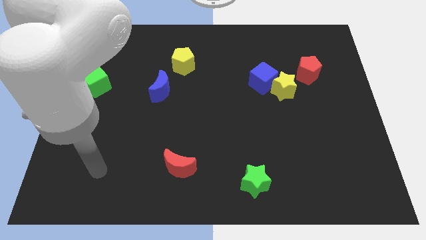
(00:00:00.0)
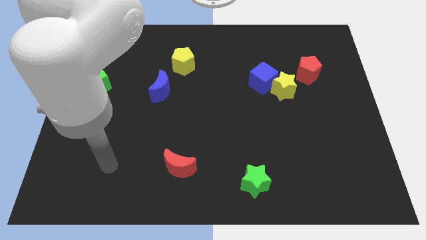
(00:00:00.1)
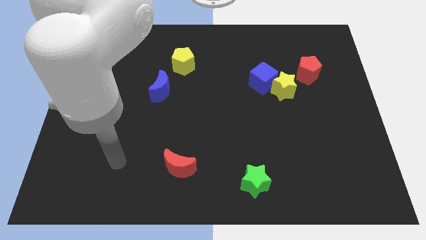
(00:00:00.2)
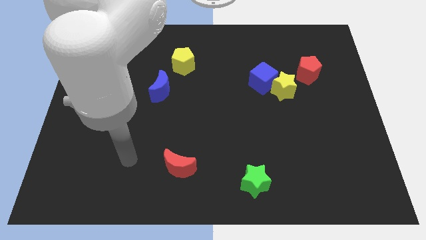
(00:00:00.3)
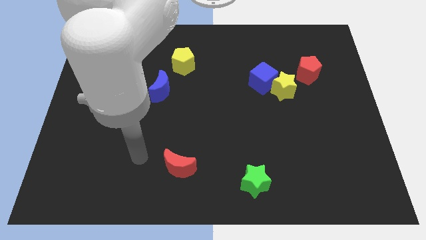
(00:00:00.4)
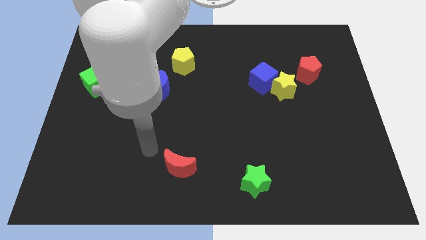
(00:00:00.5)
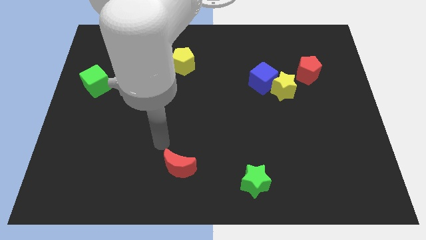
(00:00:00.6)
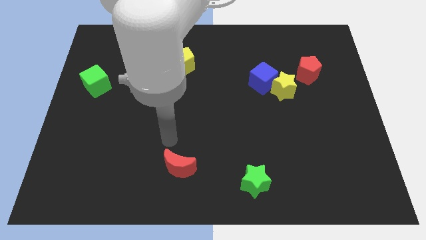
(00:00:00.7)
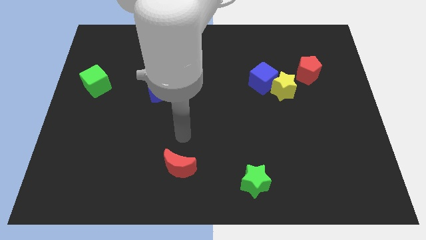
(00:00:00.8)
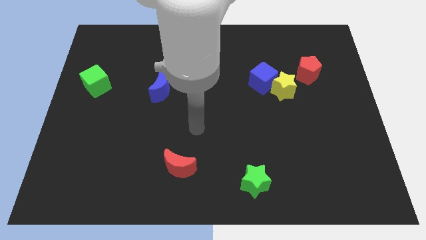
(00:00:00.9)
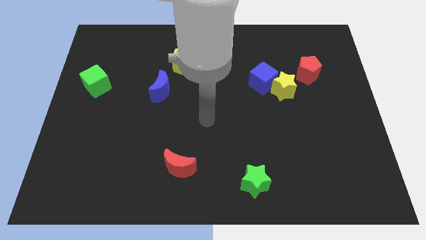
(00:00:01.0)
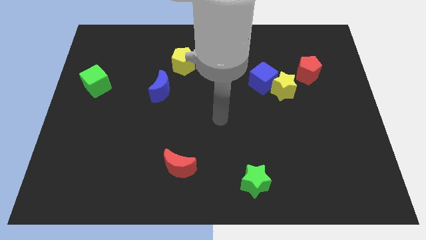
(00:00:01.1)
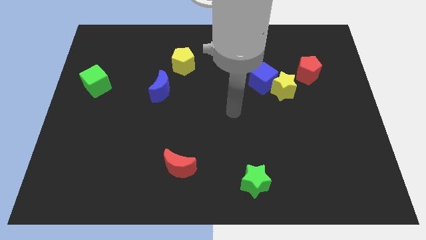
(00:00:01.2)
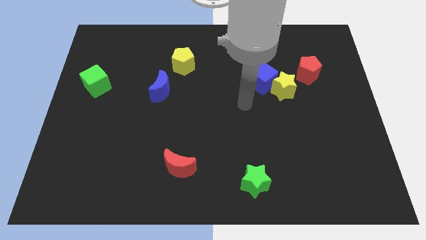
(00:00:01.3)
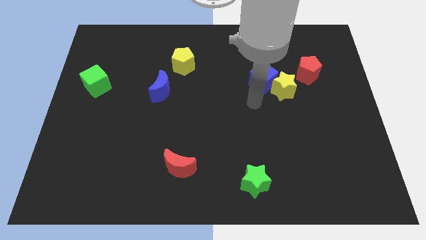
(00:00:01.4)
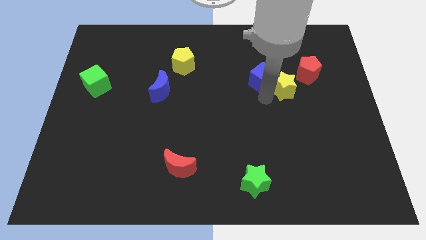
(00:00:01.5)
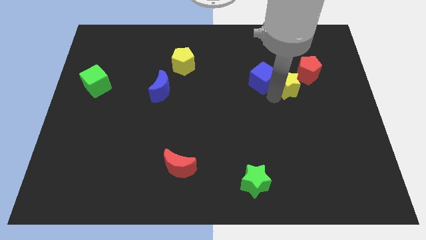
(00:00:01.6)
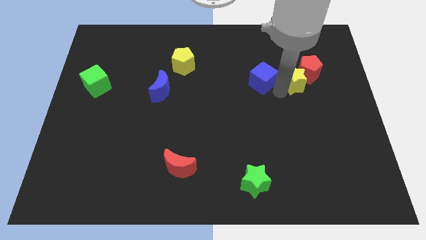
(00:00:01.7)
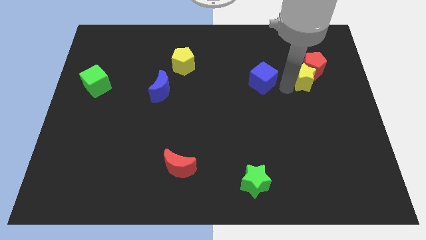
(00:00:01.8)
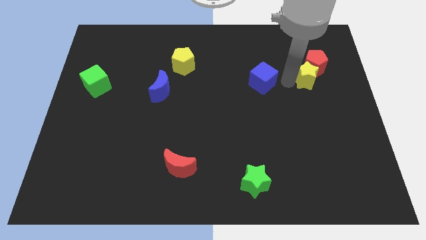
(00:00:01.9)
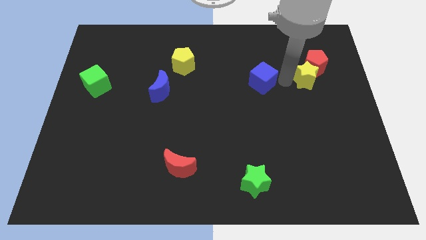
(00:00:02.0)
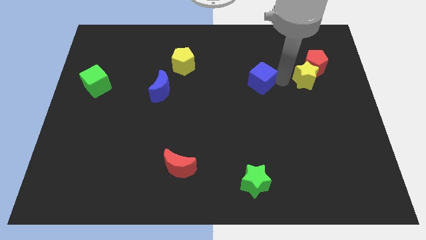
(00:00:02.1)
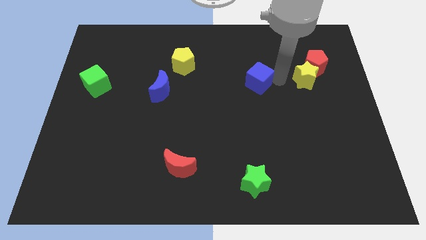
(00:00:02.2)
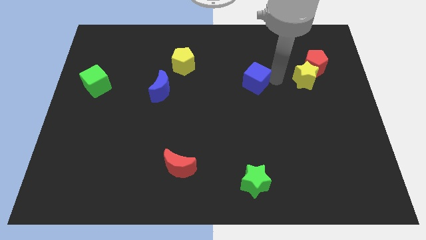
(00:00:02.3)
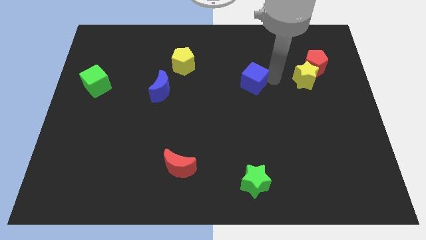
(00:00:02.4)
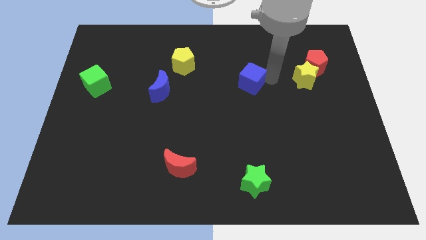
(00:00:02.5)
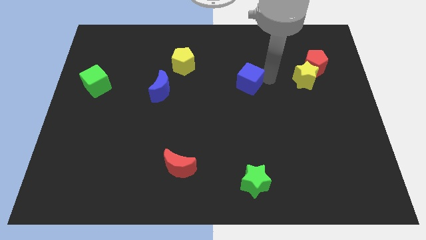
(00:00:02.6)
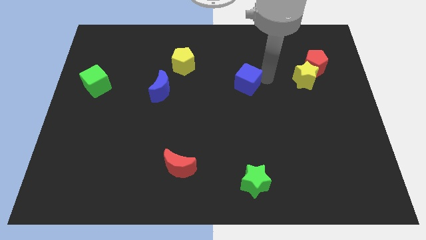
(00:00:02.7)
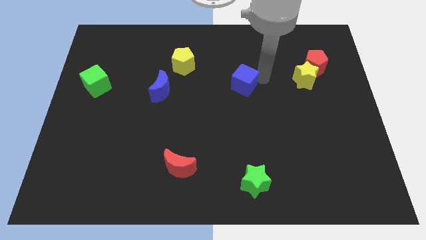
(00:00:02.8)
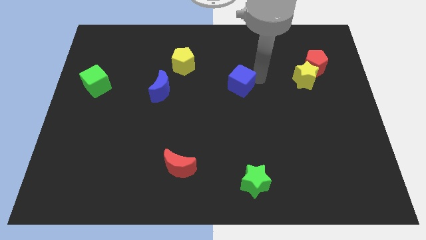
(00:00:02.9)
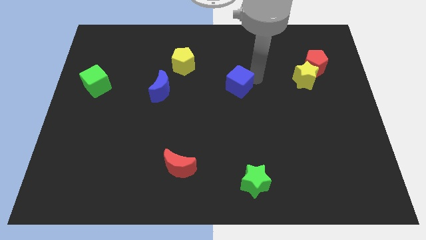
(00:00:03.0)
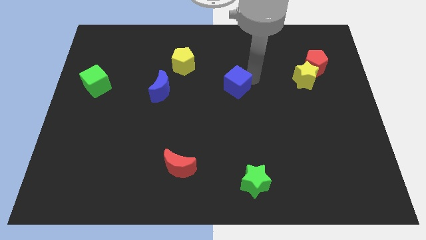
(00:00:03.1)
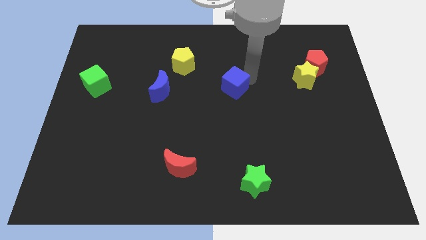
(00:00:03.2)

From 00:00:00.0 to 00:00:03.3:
move the blue cube a bit left

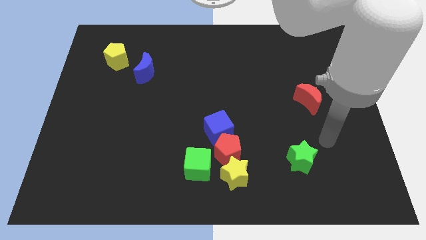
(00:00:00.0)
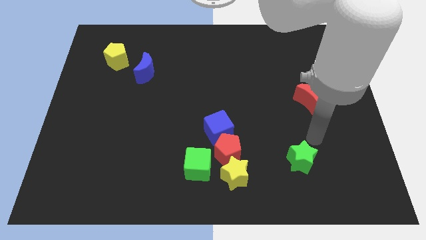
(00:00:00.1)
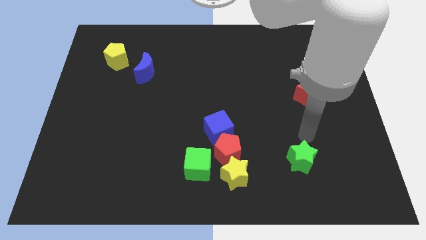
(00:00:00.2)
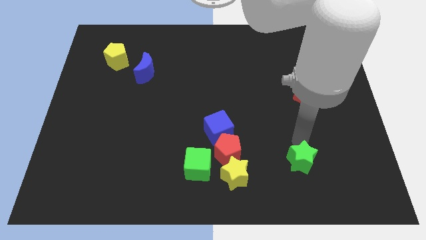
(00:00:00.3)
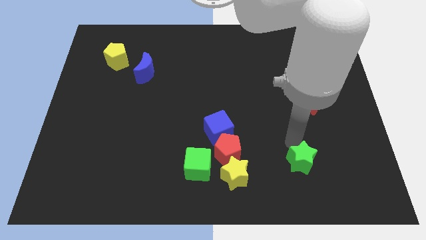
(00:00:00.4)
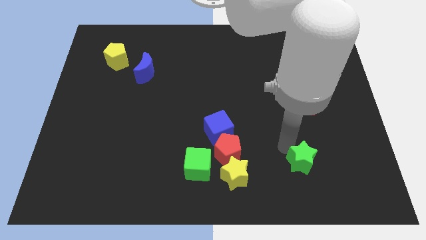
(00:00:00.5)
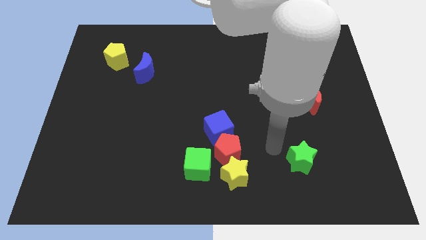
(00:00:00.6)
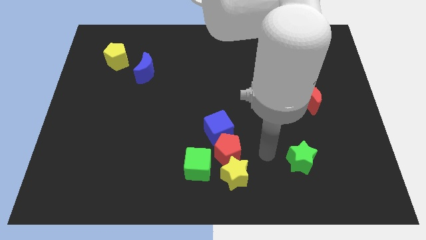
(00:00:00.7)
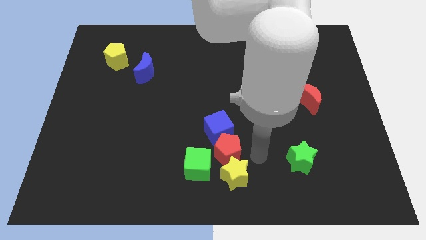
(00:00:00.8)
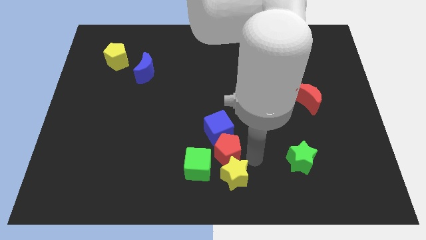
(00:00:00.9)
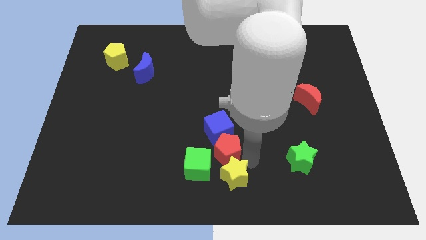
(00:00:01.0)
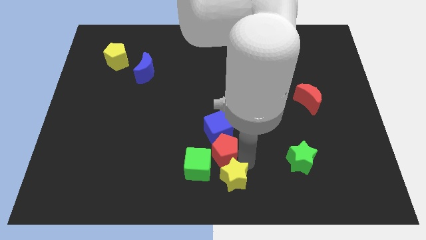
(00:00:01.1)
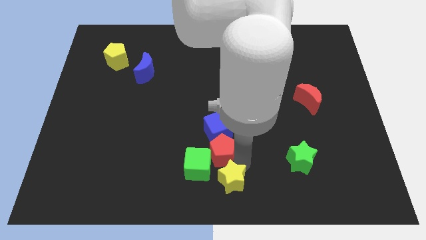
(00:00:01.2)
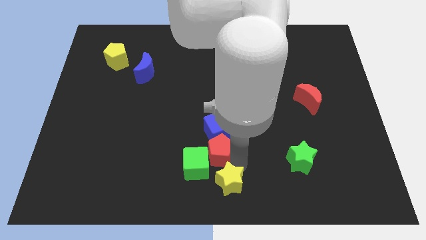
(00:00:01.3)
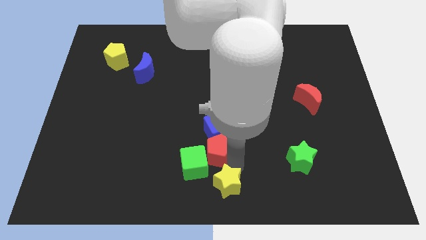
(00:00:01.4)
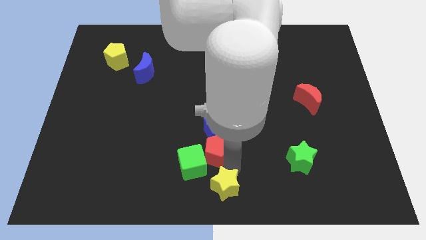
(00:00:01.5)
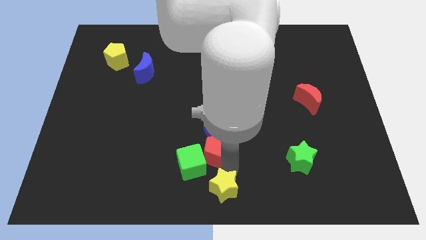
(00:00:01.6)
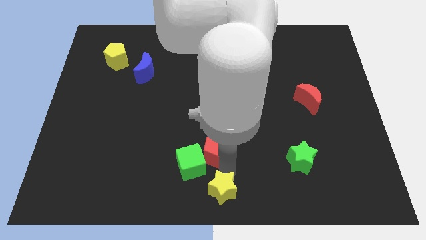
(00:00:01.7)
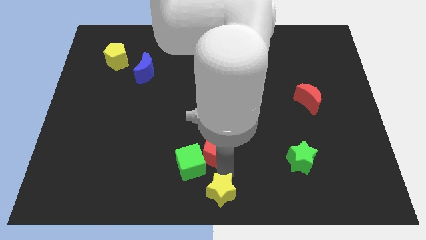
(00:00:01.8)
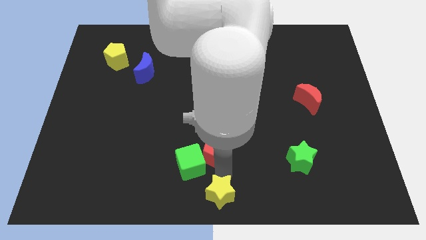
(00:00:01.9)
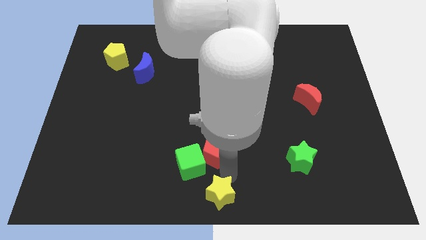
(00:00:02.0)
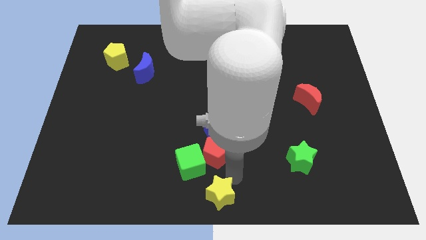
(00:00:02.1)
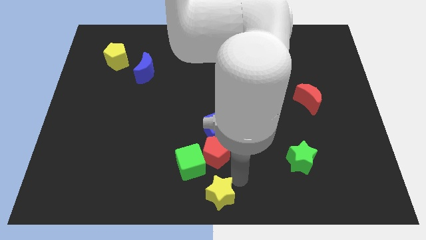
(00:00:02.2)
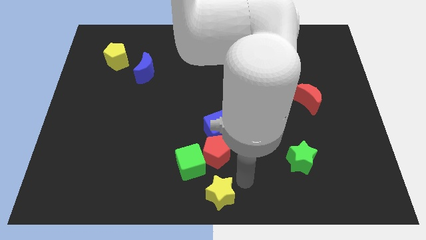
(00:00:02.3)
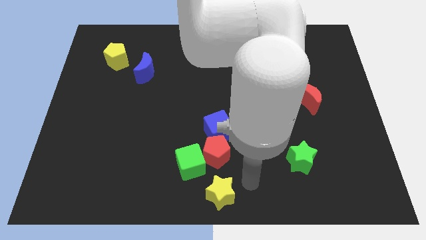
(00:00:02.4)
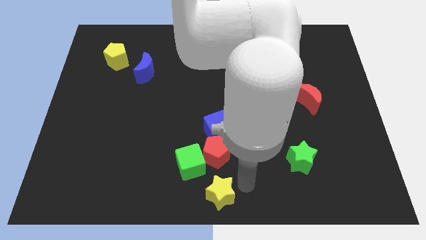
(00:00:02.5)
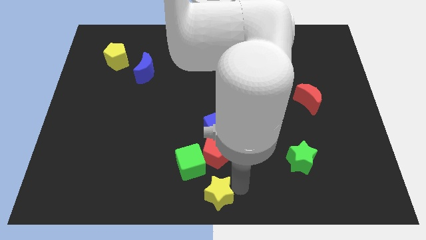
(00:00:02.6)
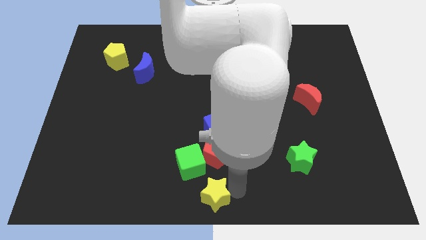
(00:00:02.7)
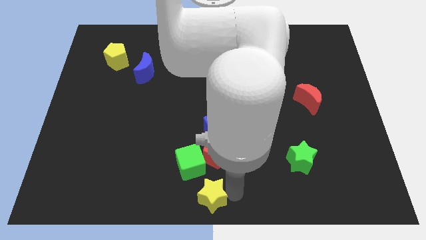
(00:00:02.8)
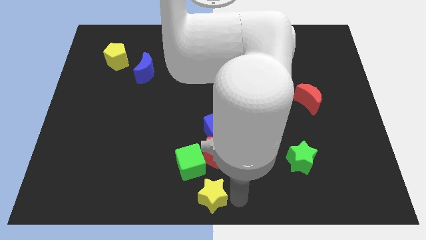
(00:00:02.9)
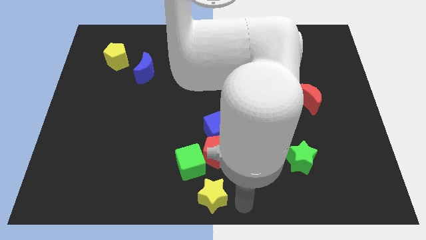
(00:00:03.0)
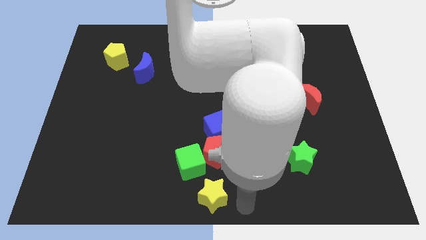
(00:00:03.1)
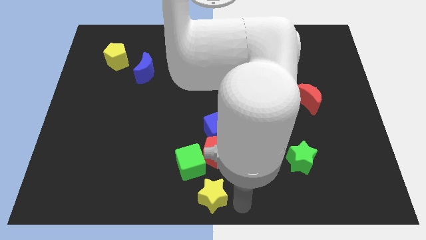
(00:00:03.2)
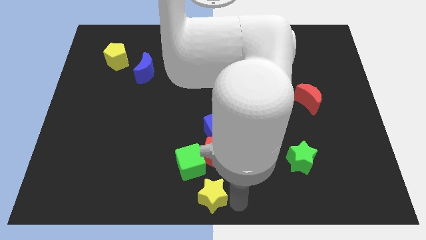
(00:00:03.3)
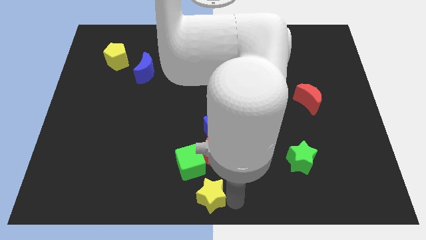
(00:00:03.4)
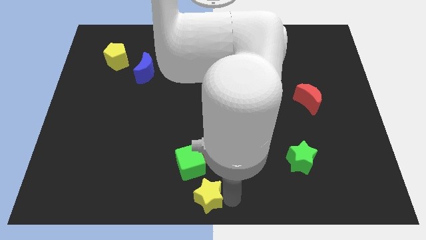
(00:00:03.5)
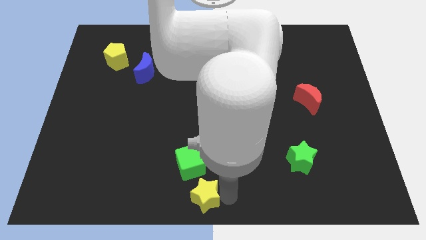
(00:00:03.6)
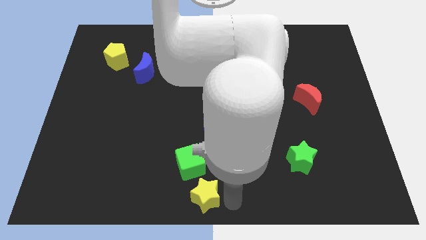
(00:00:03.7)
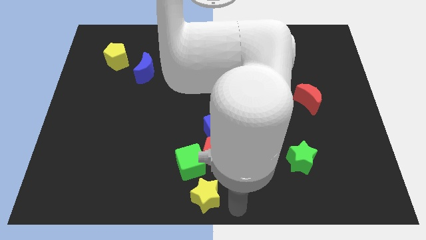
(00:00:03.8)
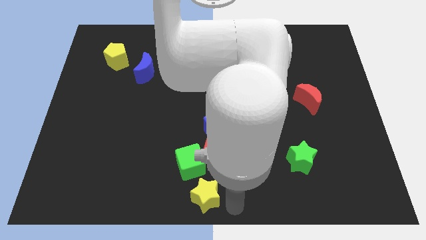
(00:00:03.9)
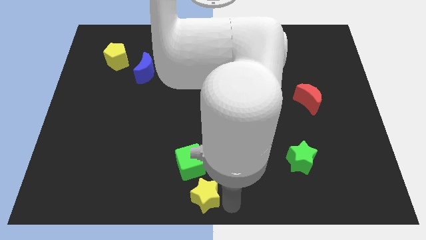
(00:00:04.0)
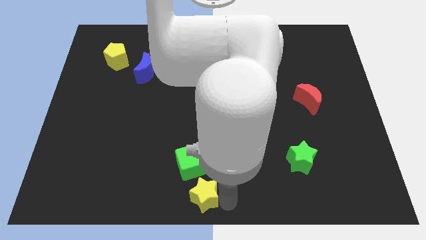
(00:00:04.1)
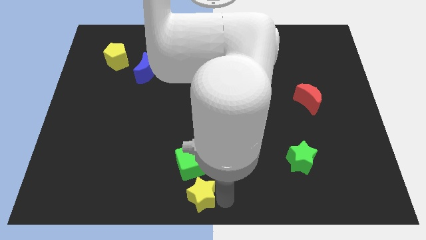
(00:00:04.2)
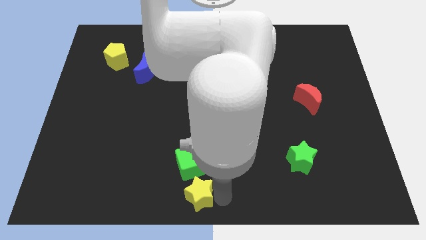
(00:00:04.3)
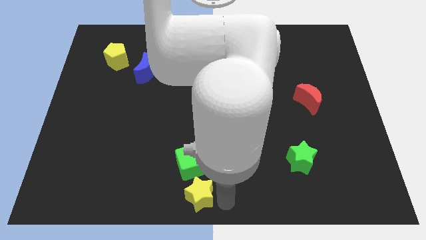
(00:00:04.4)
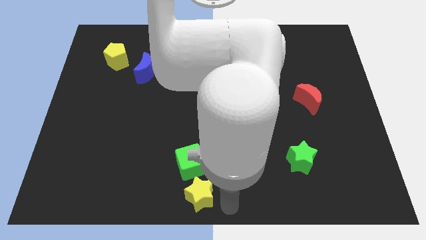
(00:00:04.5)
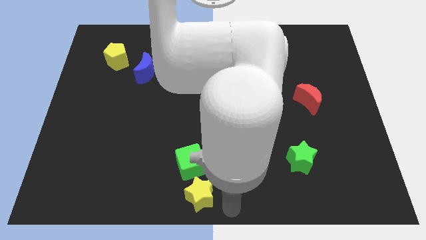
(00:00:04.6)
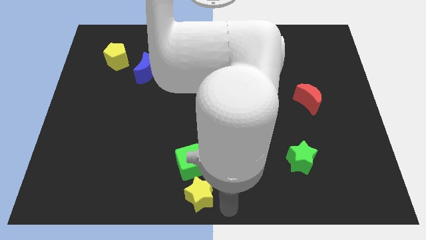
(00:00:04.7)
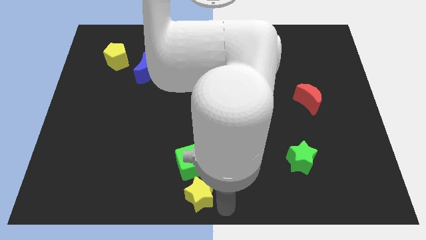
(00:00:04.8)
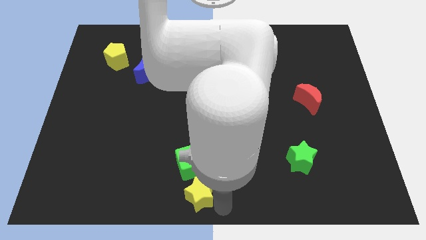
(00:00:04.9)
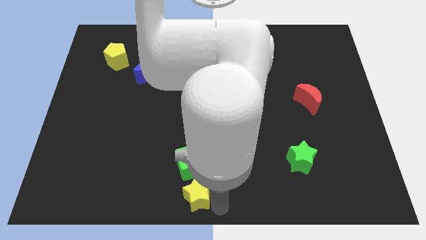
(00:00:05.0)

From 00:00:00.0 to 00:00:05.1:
slide the yellow star to the left somewhat
